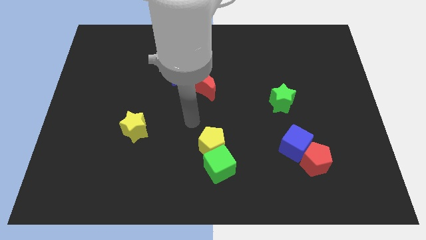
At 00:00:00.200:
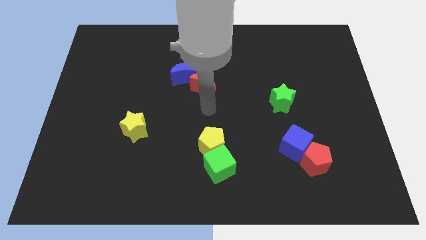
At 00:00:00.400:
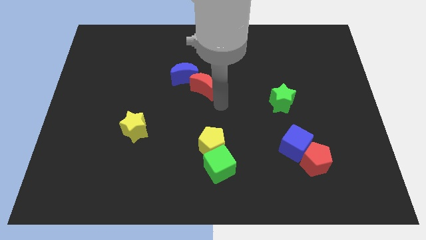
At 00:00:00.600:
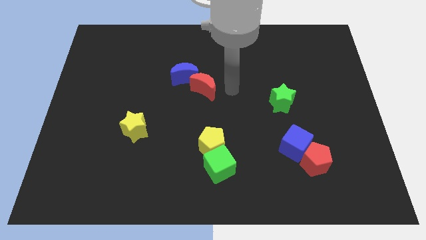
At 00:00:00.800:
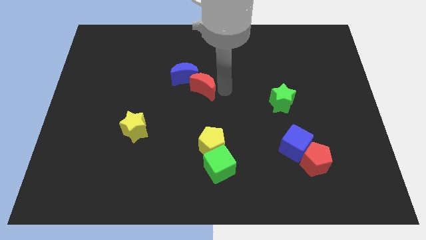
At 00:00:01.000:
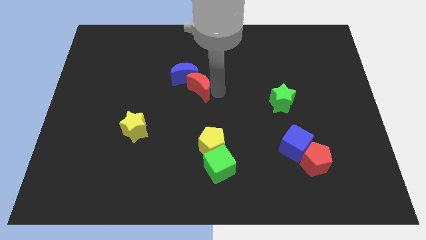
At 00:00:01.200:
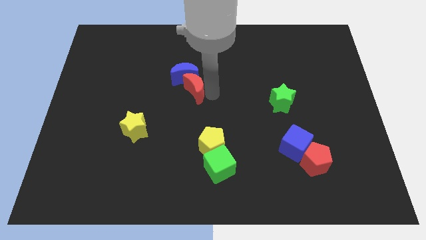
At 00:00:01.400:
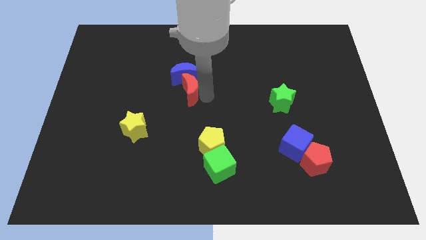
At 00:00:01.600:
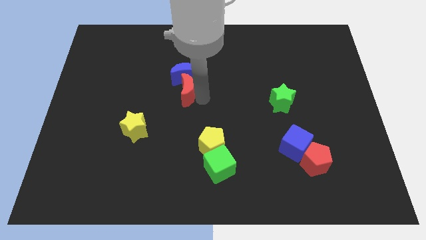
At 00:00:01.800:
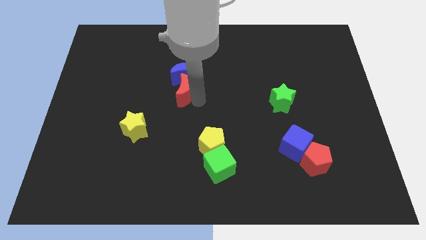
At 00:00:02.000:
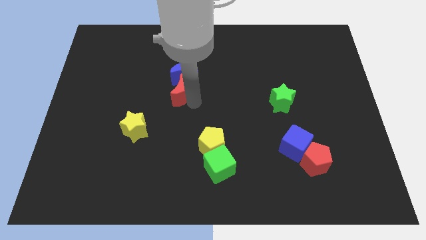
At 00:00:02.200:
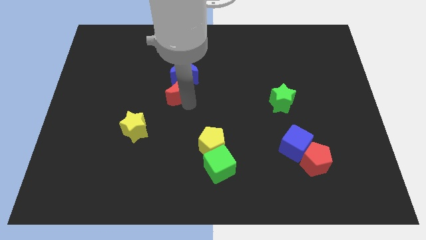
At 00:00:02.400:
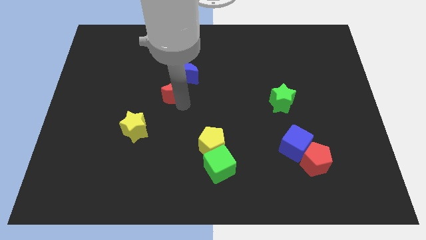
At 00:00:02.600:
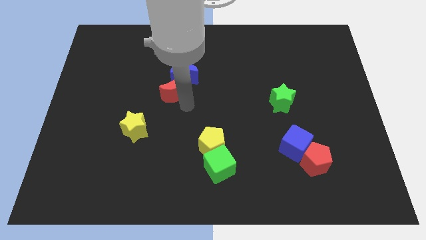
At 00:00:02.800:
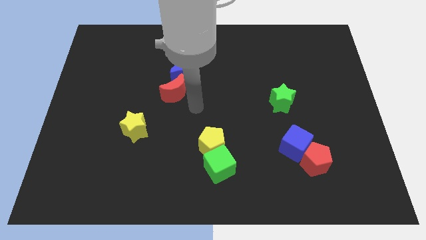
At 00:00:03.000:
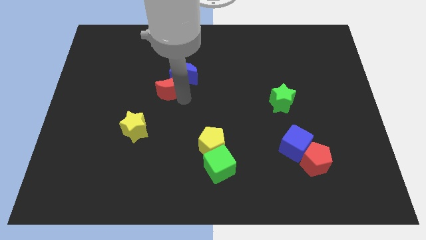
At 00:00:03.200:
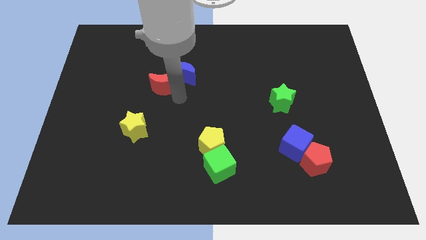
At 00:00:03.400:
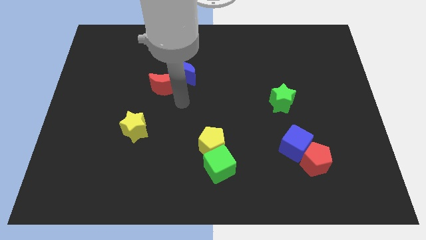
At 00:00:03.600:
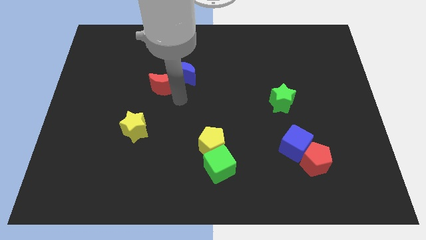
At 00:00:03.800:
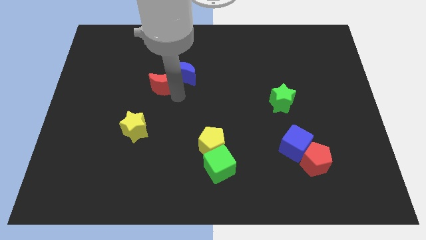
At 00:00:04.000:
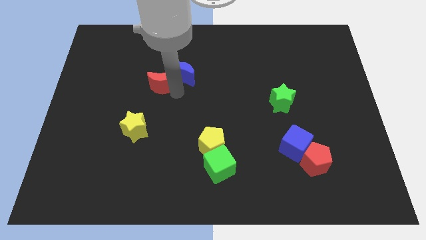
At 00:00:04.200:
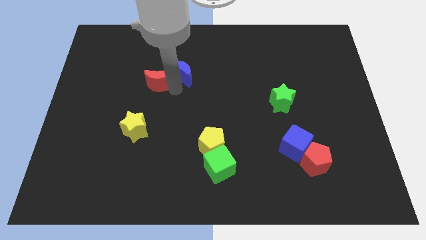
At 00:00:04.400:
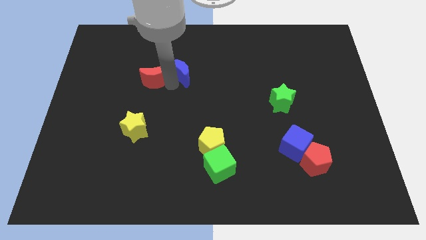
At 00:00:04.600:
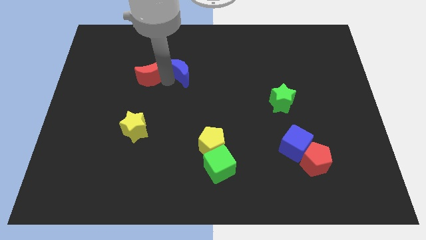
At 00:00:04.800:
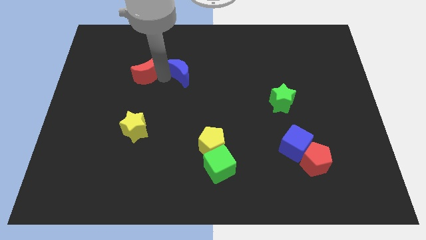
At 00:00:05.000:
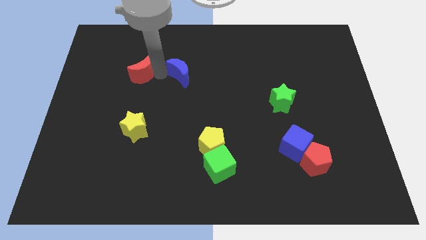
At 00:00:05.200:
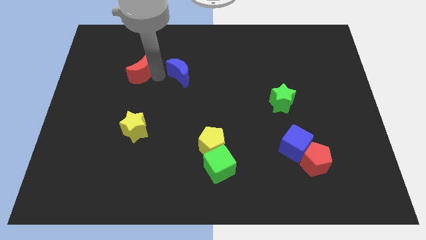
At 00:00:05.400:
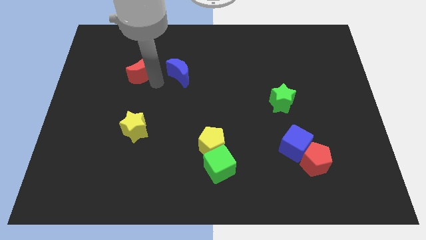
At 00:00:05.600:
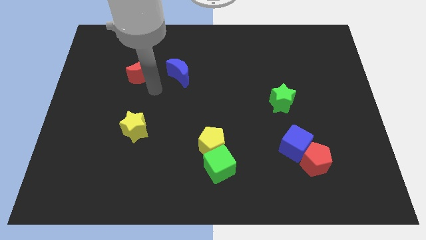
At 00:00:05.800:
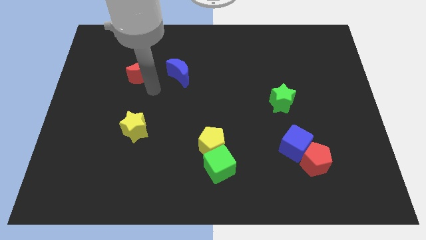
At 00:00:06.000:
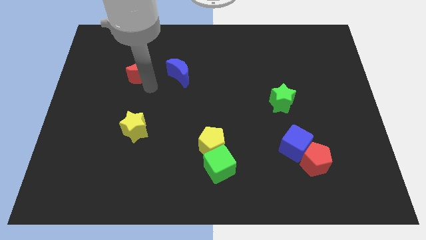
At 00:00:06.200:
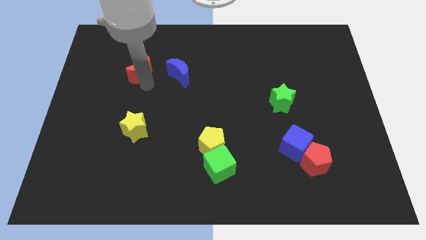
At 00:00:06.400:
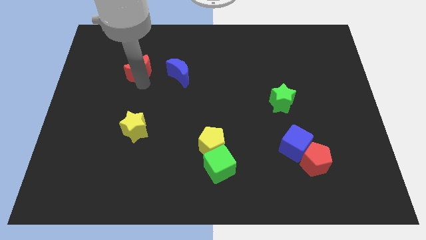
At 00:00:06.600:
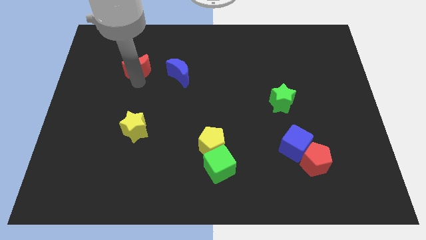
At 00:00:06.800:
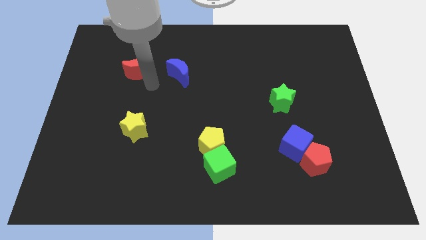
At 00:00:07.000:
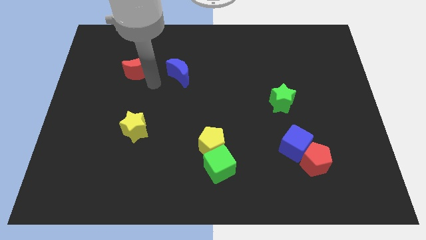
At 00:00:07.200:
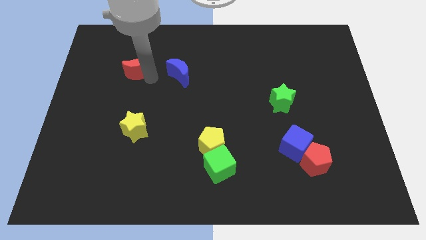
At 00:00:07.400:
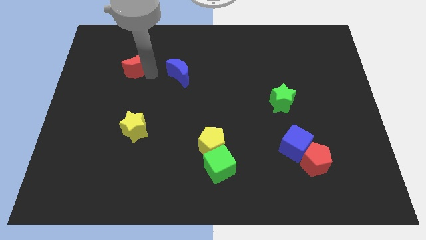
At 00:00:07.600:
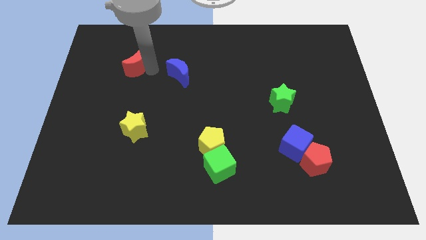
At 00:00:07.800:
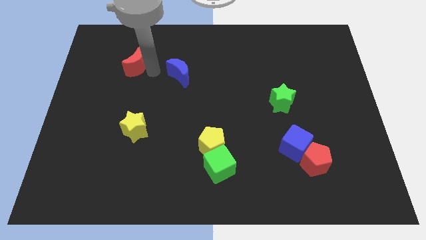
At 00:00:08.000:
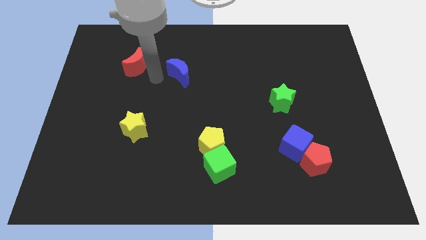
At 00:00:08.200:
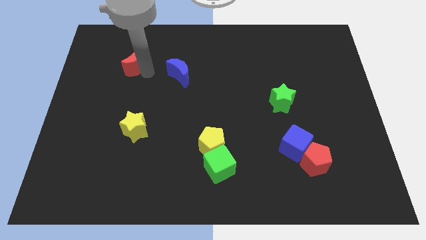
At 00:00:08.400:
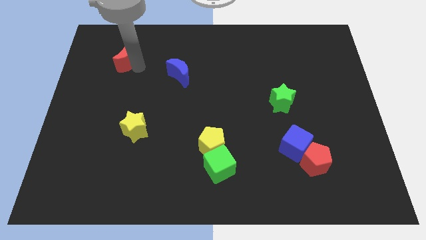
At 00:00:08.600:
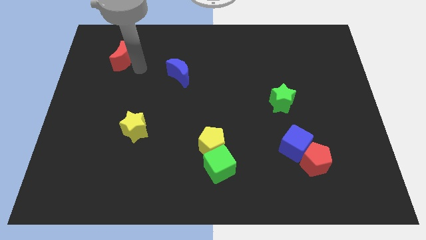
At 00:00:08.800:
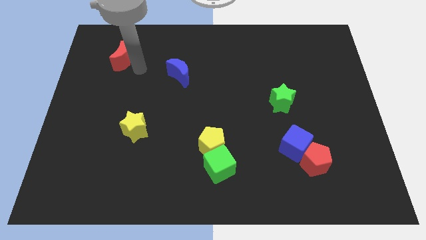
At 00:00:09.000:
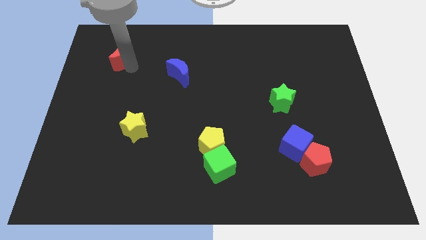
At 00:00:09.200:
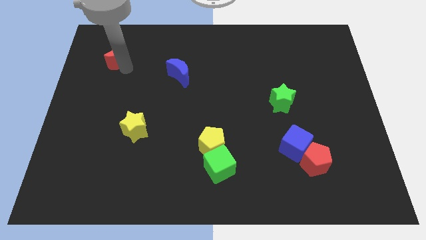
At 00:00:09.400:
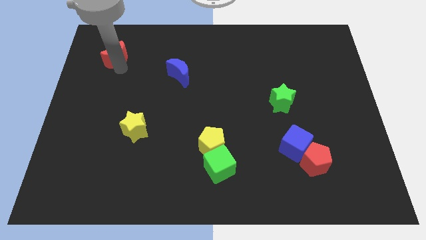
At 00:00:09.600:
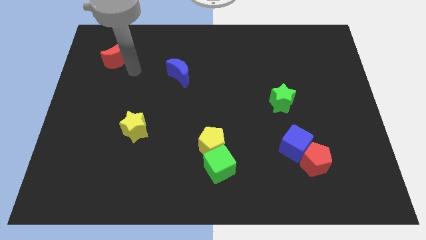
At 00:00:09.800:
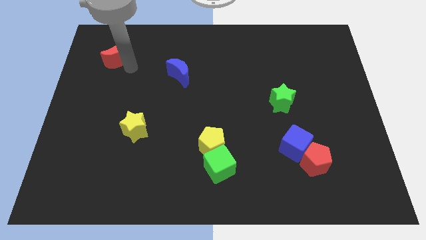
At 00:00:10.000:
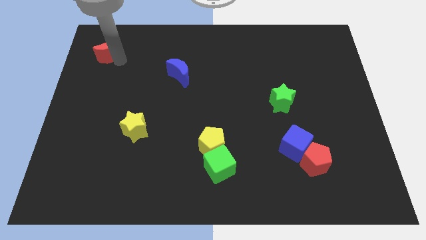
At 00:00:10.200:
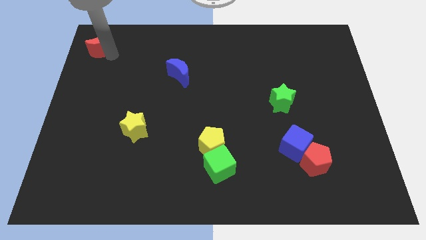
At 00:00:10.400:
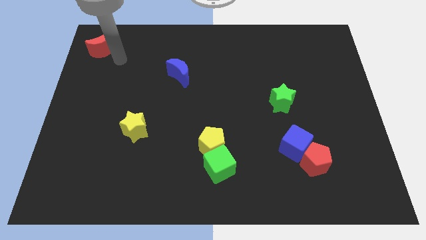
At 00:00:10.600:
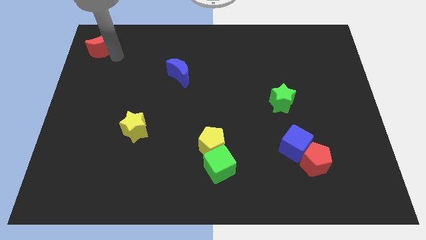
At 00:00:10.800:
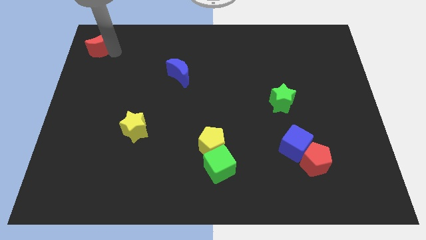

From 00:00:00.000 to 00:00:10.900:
put the red moon to the top left of the board

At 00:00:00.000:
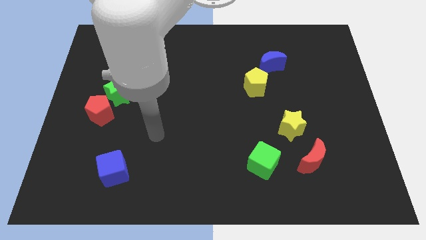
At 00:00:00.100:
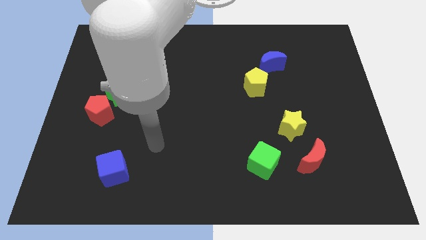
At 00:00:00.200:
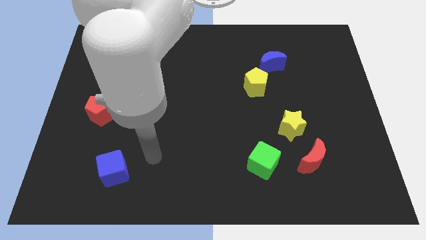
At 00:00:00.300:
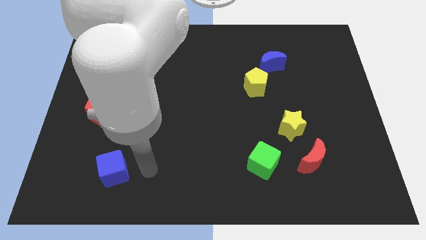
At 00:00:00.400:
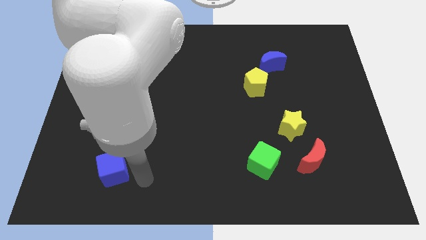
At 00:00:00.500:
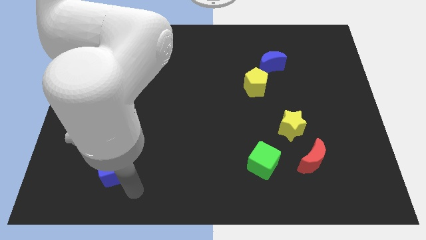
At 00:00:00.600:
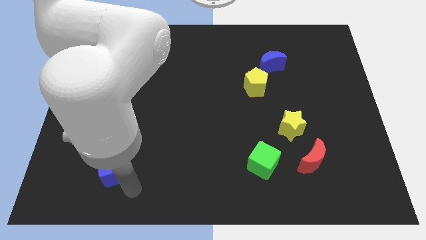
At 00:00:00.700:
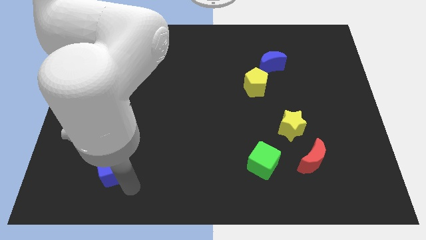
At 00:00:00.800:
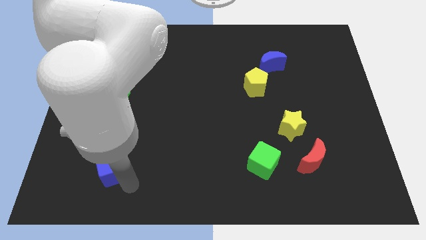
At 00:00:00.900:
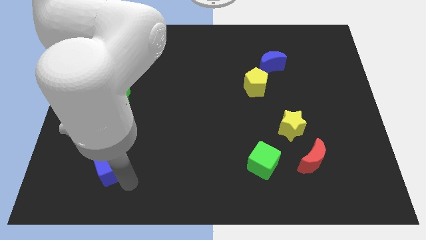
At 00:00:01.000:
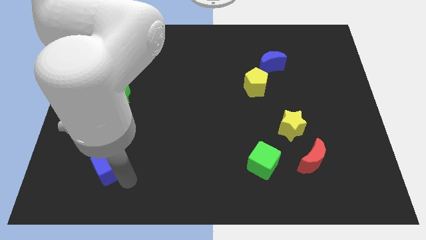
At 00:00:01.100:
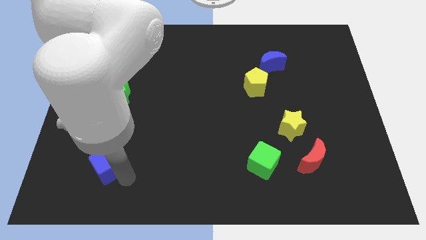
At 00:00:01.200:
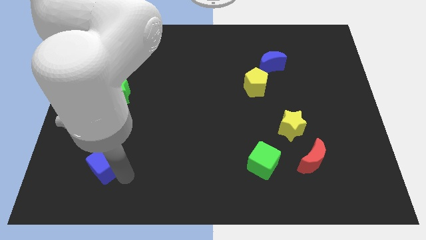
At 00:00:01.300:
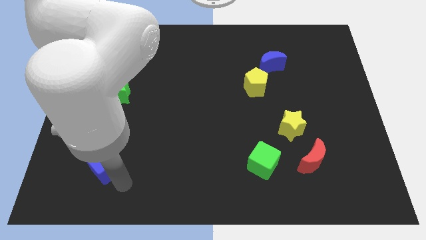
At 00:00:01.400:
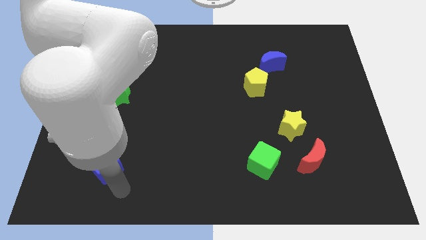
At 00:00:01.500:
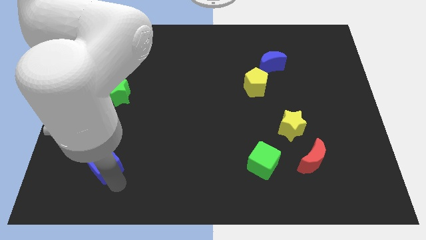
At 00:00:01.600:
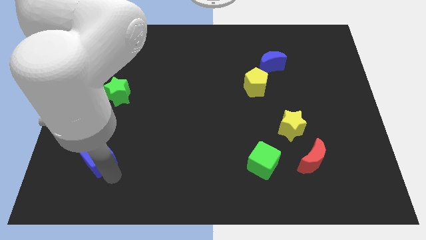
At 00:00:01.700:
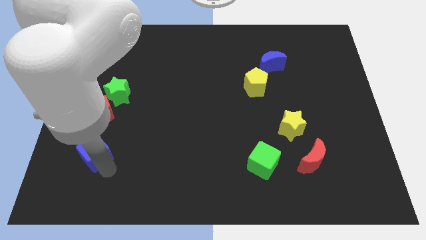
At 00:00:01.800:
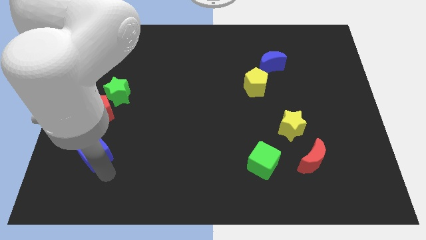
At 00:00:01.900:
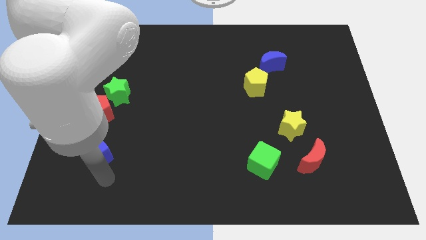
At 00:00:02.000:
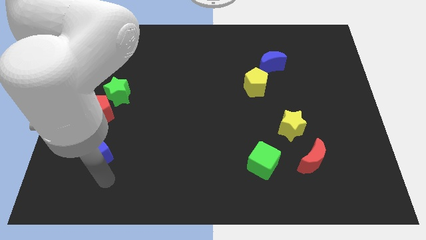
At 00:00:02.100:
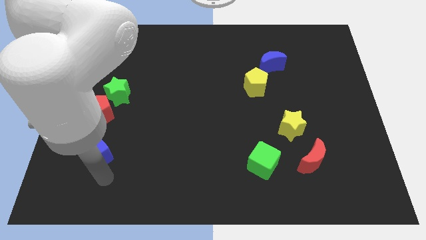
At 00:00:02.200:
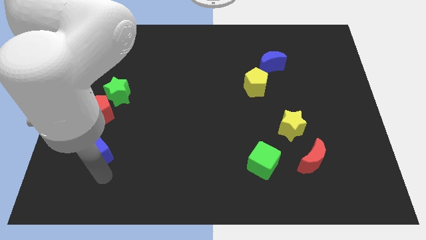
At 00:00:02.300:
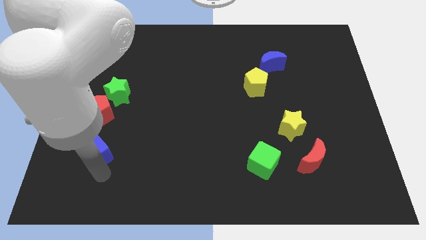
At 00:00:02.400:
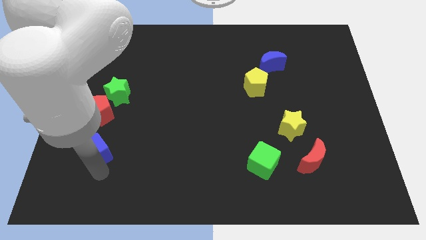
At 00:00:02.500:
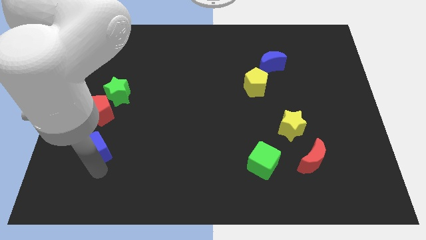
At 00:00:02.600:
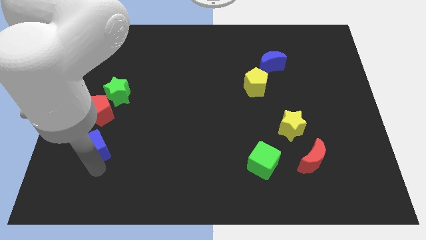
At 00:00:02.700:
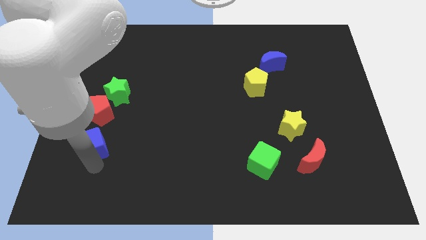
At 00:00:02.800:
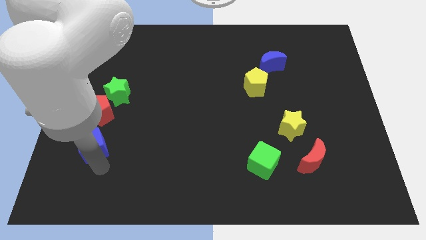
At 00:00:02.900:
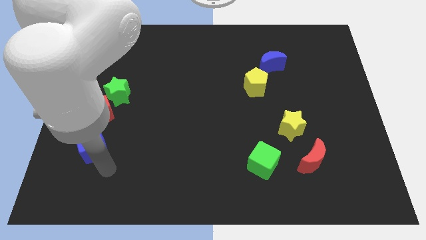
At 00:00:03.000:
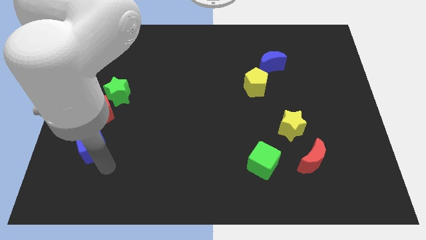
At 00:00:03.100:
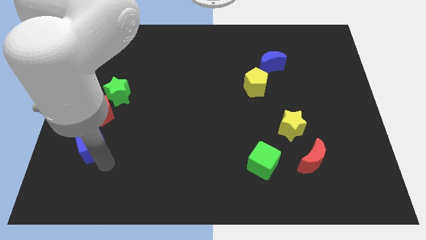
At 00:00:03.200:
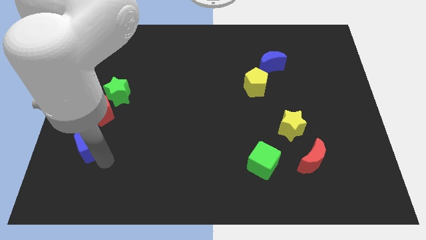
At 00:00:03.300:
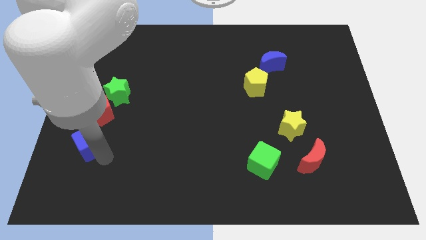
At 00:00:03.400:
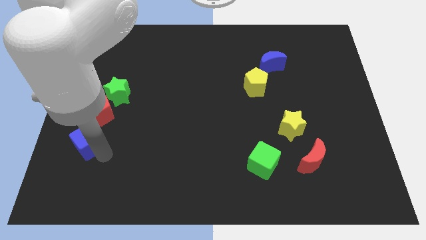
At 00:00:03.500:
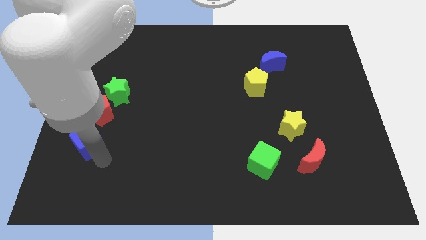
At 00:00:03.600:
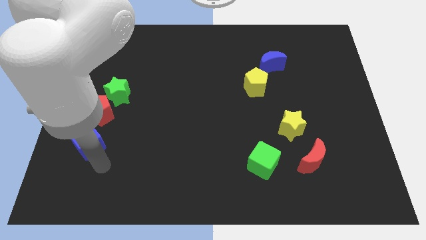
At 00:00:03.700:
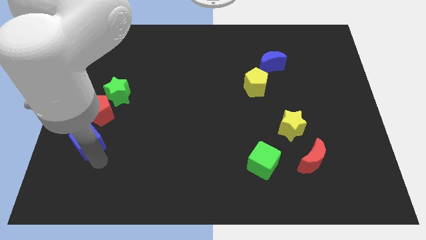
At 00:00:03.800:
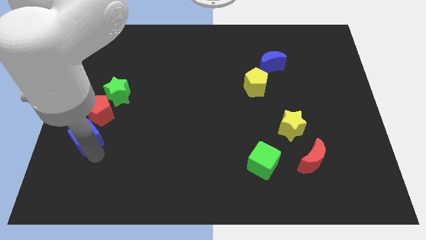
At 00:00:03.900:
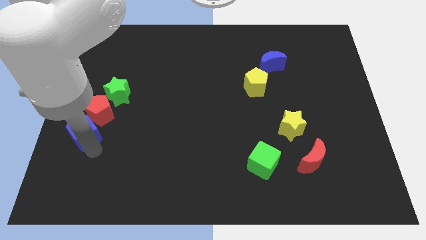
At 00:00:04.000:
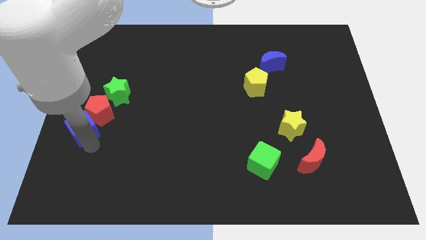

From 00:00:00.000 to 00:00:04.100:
push the blue cube to the center left
